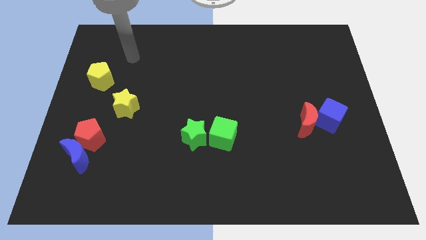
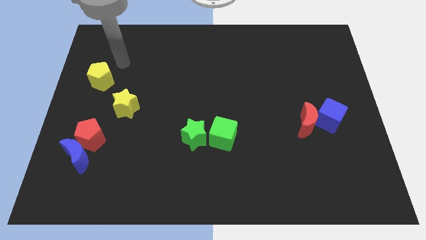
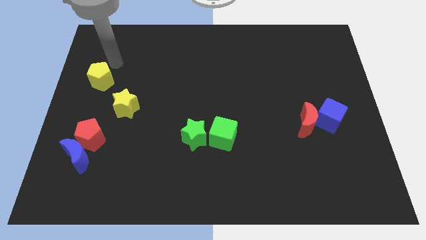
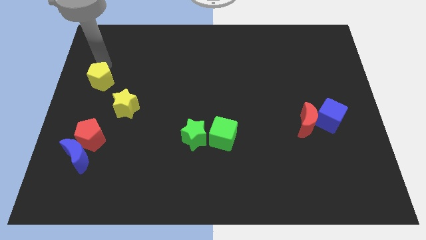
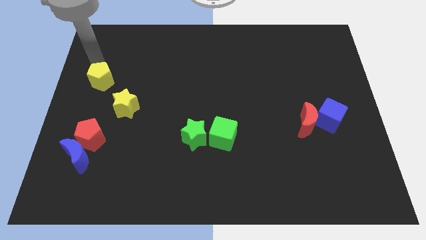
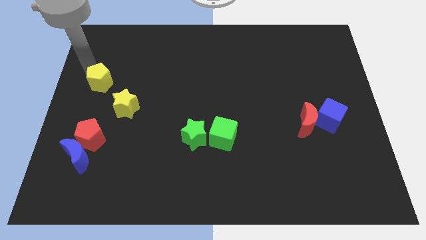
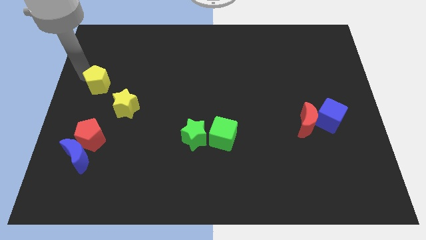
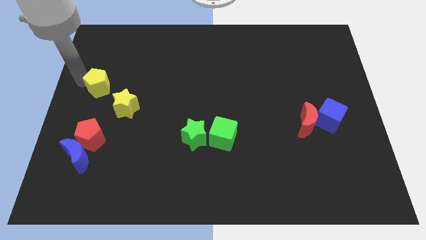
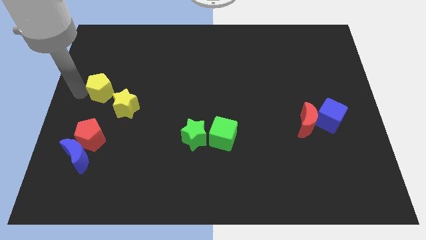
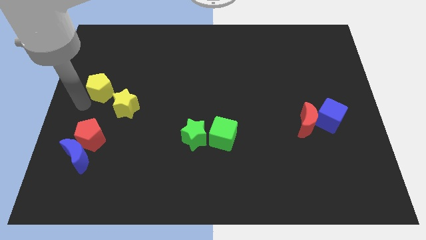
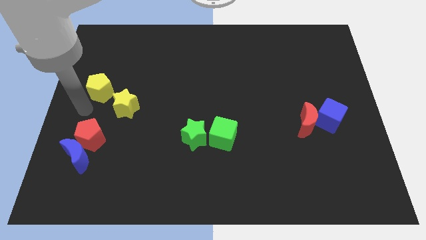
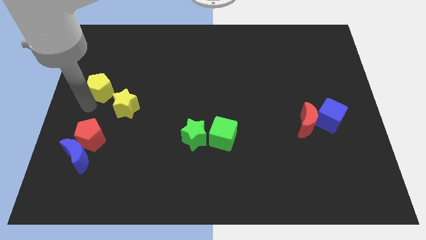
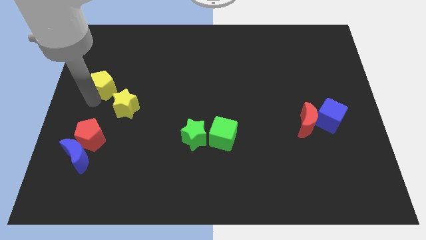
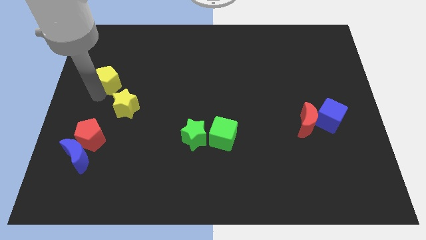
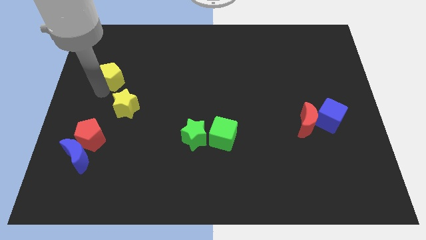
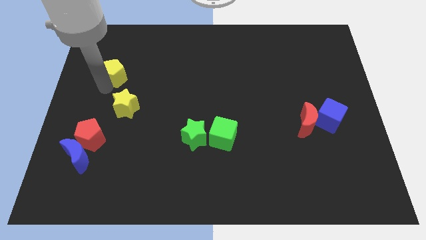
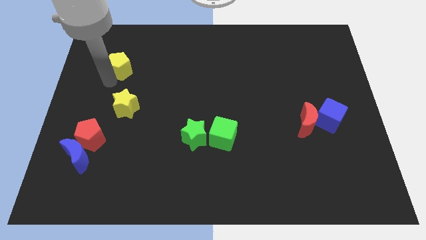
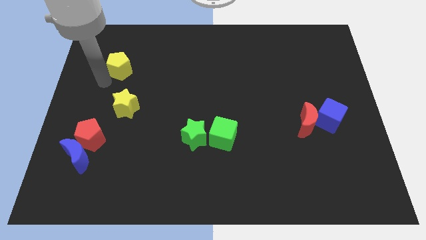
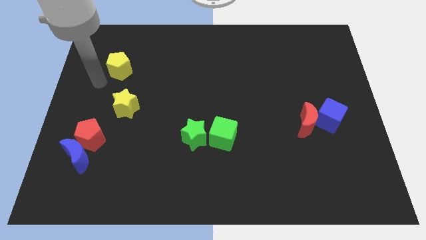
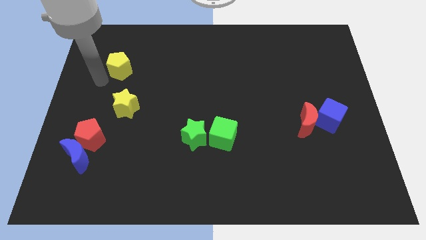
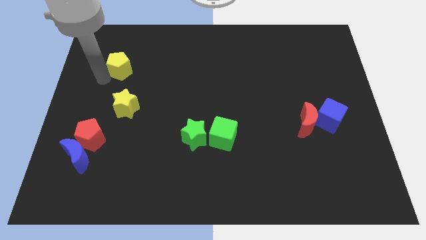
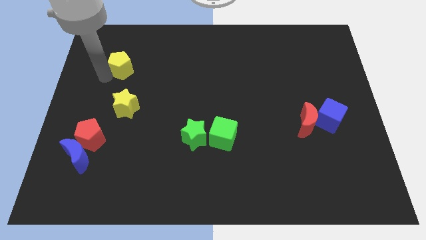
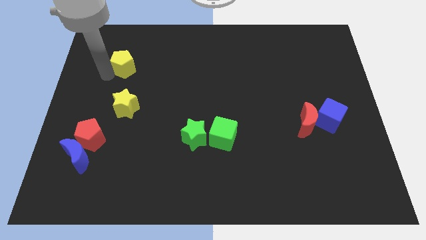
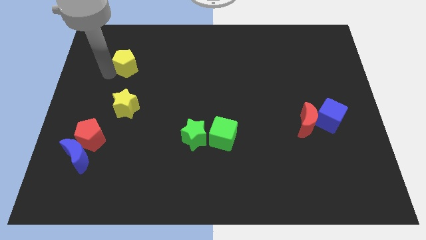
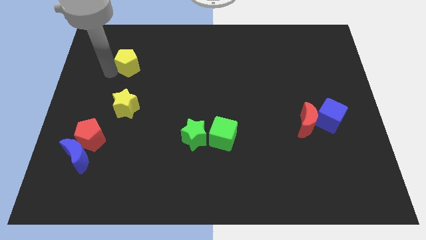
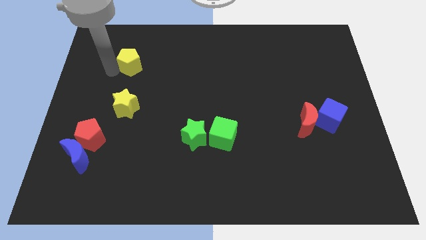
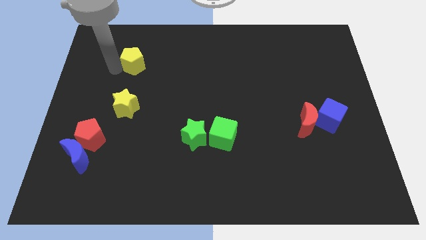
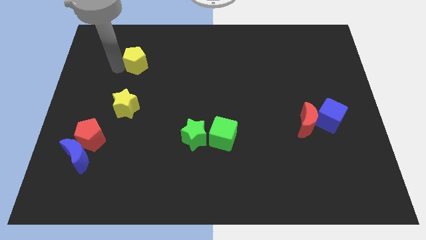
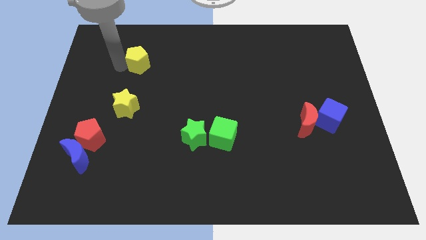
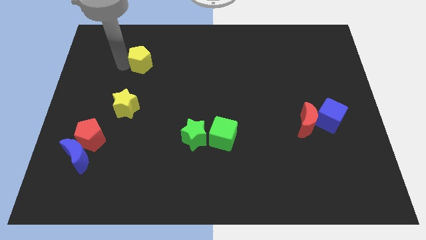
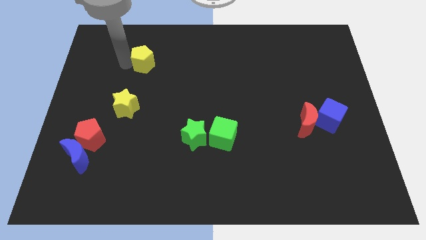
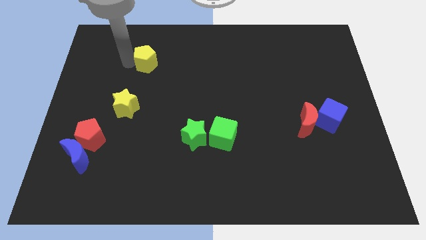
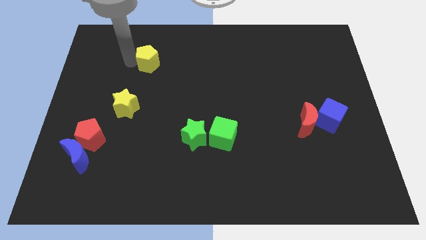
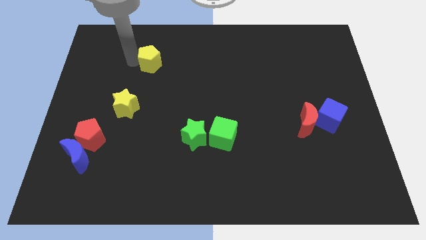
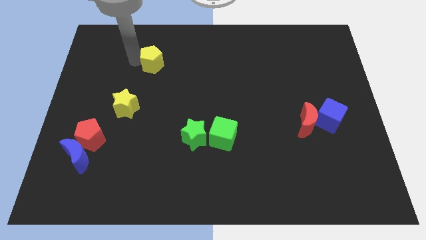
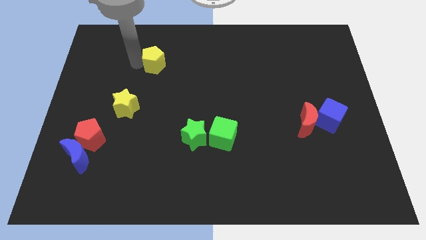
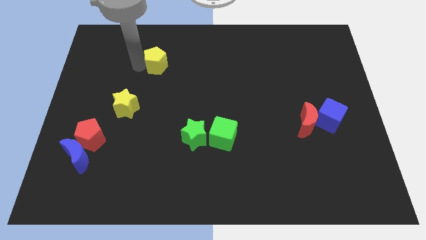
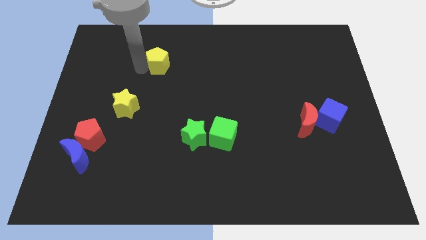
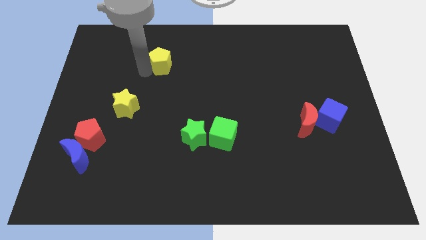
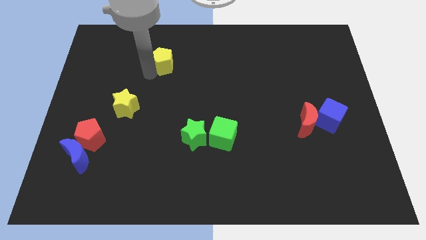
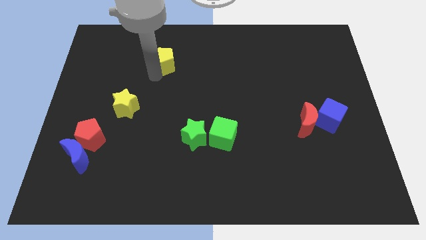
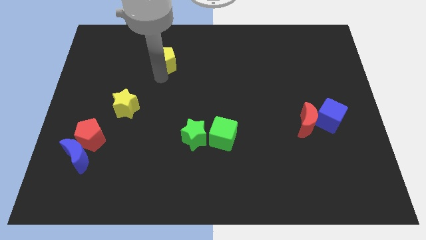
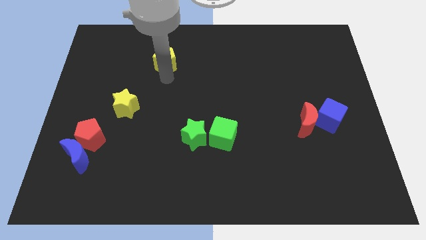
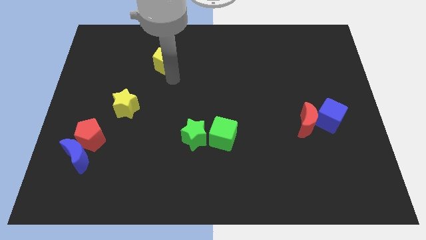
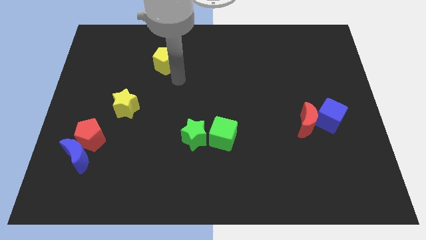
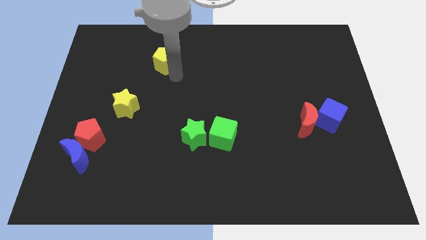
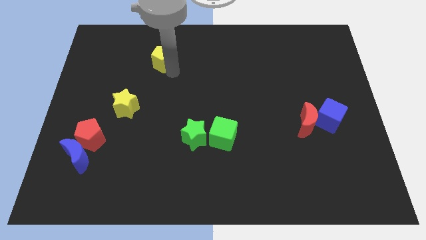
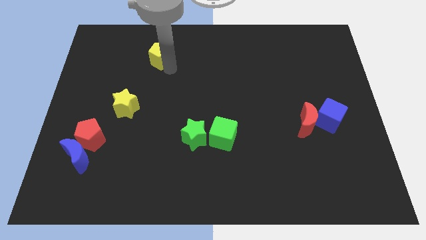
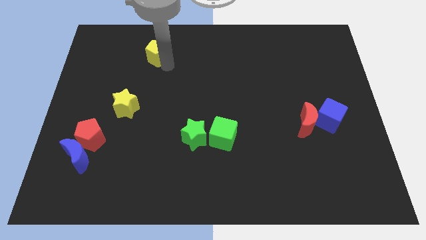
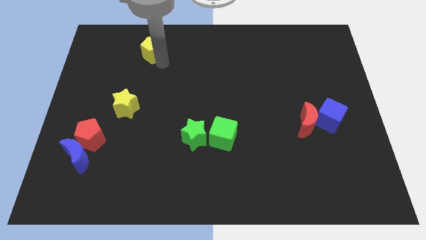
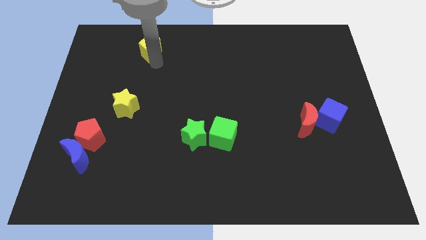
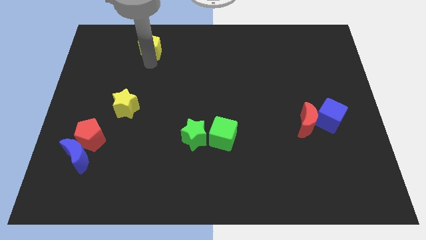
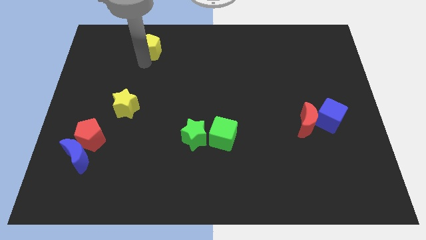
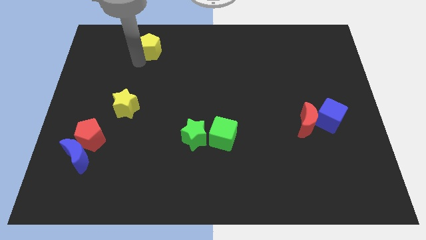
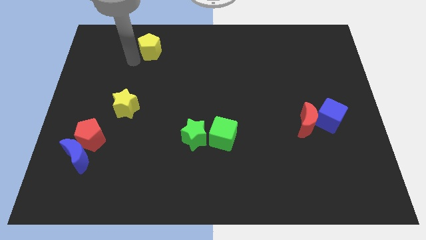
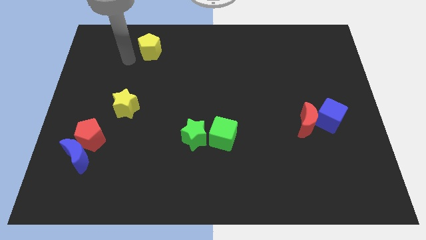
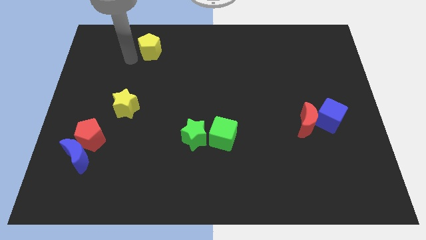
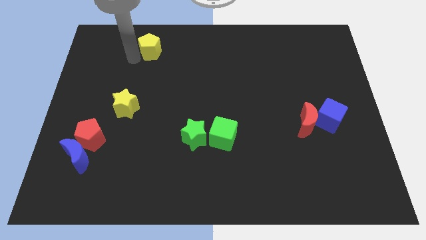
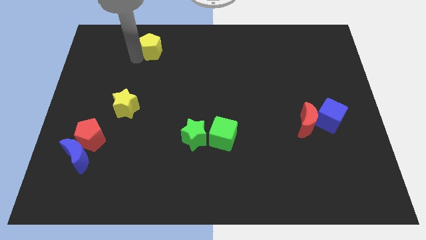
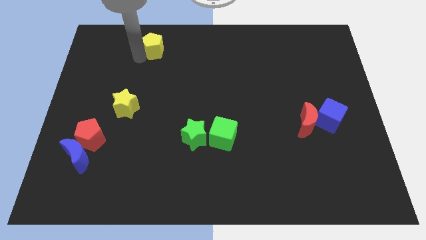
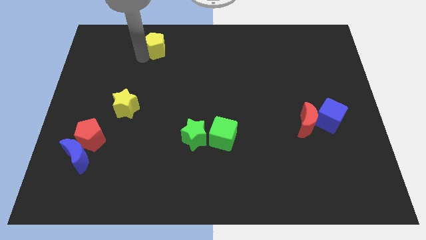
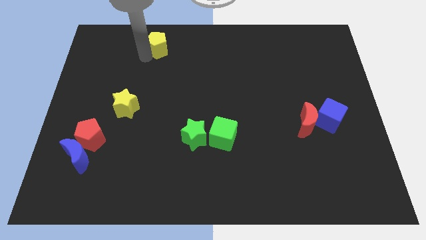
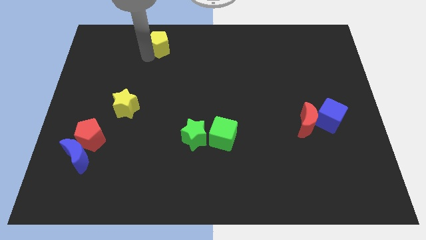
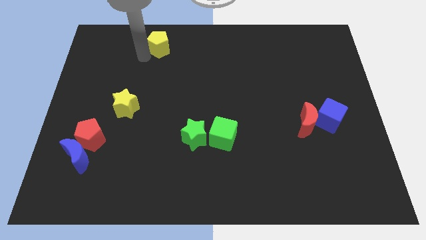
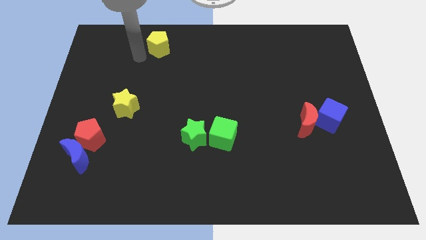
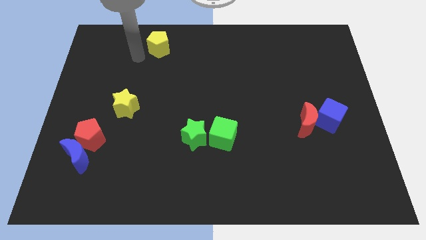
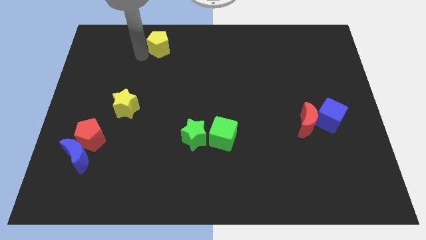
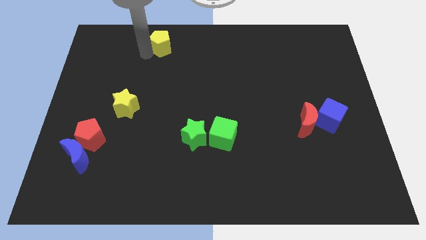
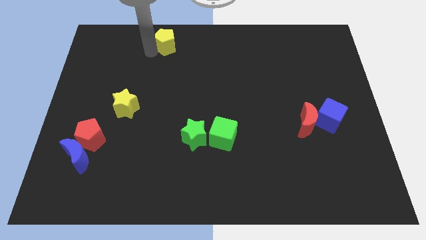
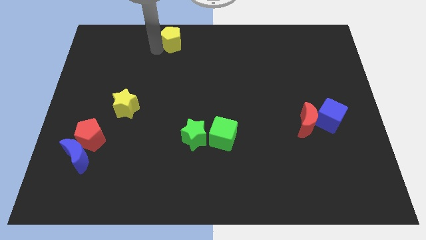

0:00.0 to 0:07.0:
move the yellow pentagon to the towards your base
